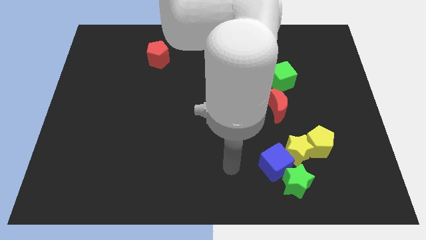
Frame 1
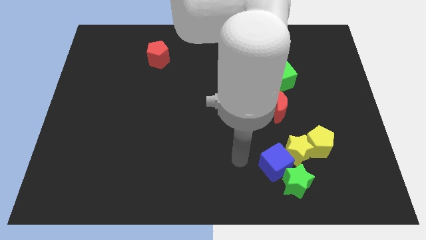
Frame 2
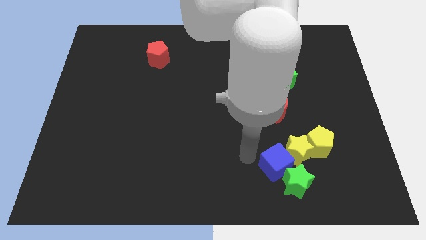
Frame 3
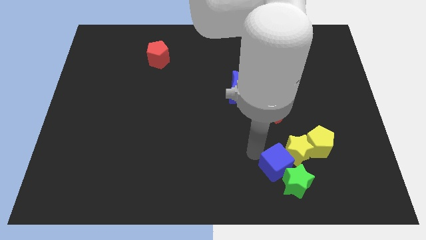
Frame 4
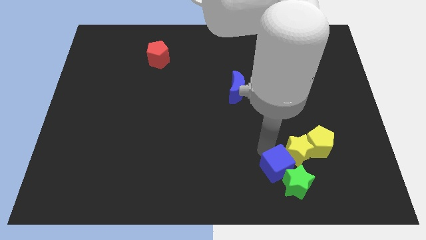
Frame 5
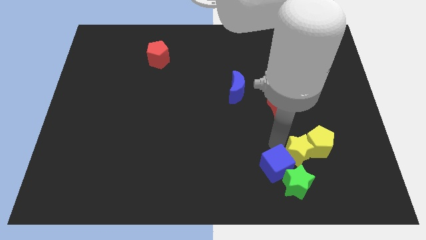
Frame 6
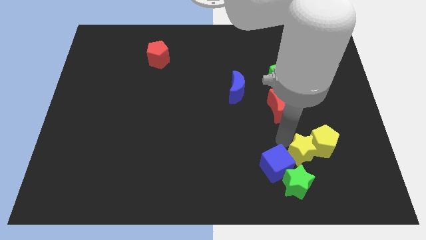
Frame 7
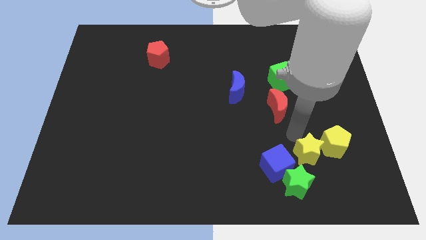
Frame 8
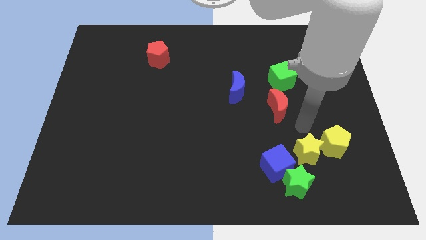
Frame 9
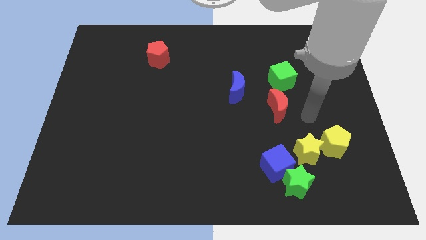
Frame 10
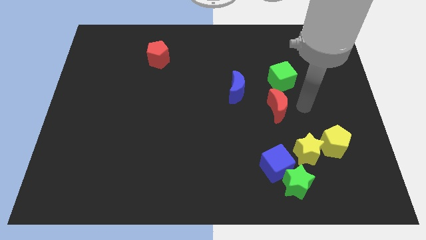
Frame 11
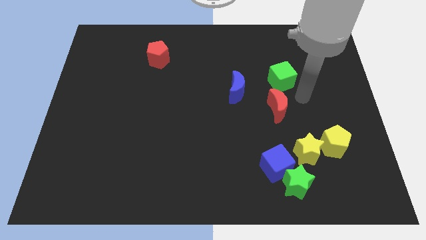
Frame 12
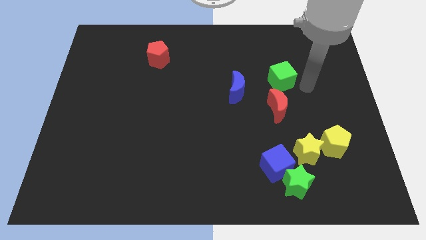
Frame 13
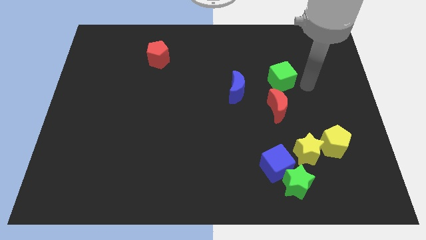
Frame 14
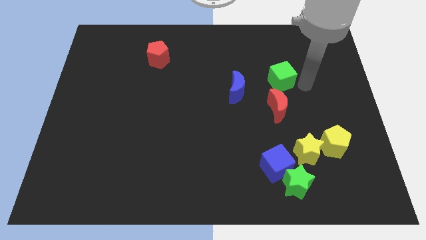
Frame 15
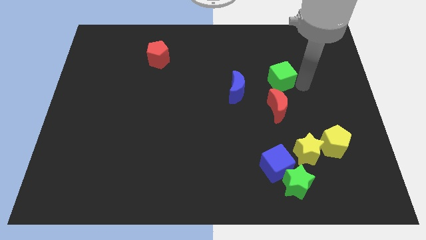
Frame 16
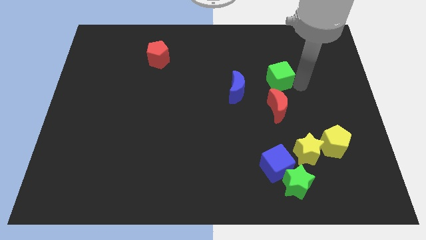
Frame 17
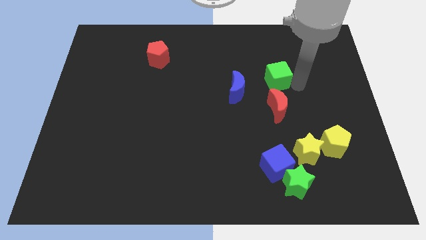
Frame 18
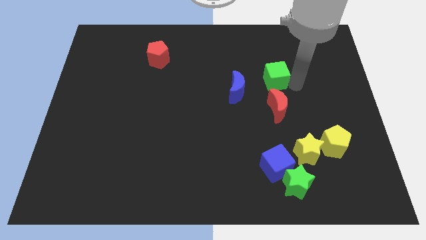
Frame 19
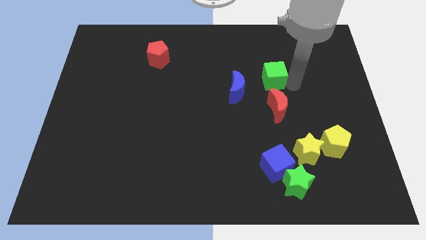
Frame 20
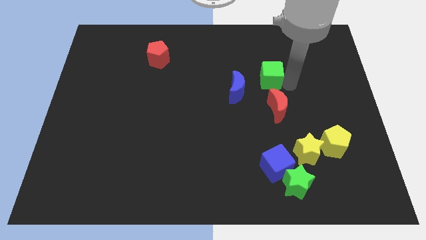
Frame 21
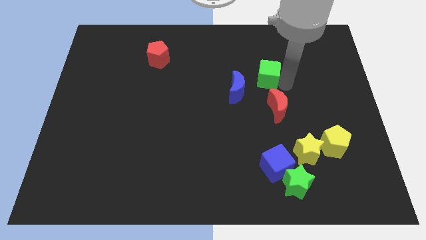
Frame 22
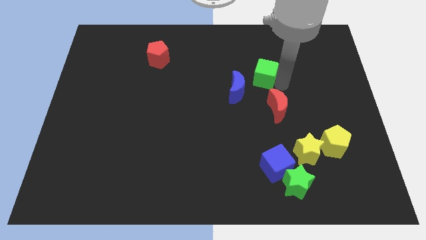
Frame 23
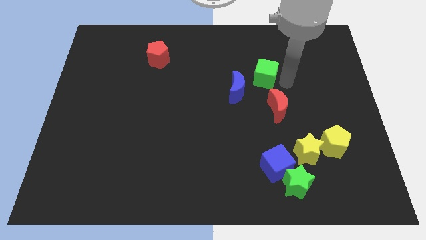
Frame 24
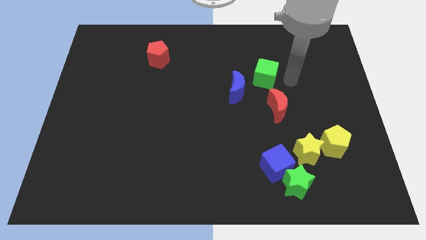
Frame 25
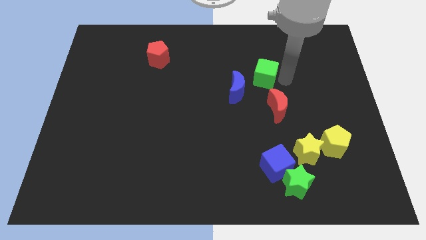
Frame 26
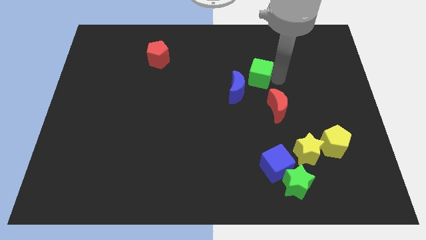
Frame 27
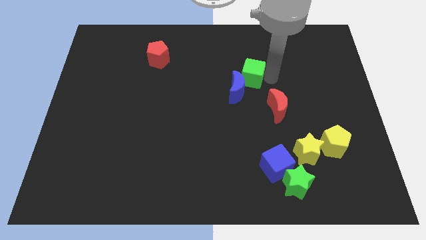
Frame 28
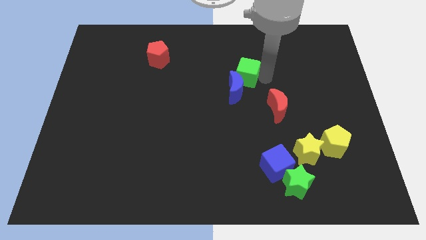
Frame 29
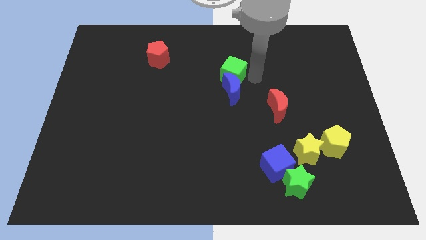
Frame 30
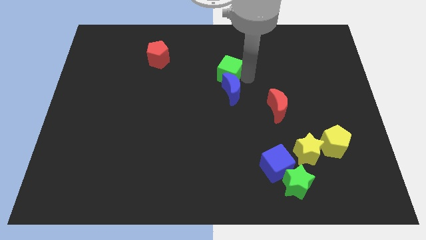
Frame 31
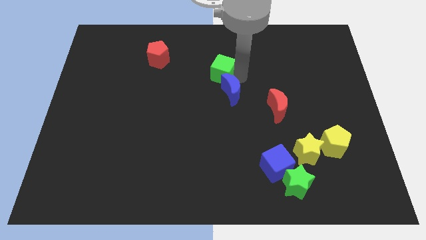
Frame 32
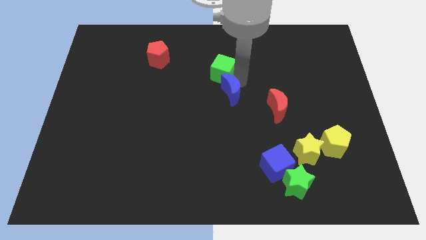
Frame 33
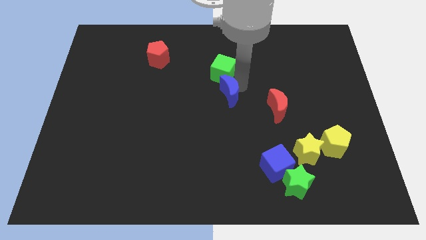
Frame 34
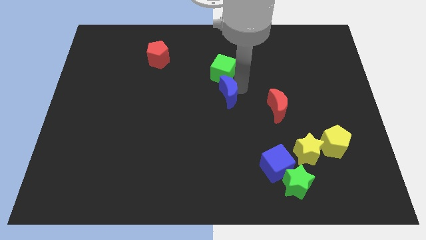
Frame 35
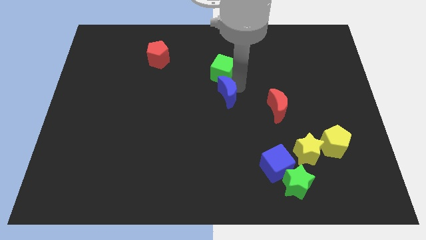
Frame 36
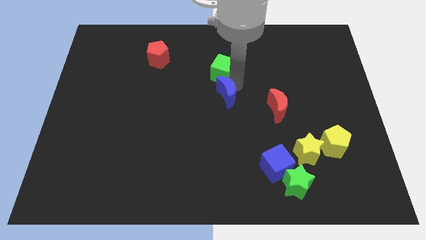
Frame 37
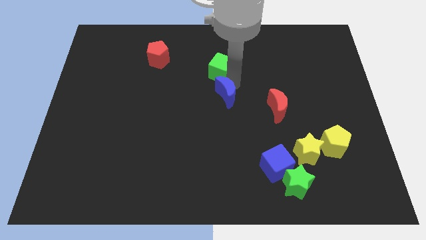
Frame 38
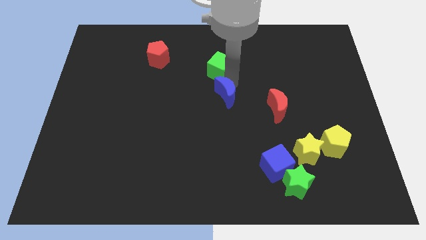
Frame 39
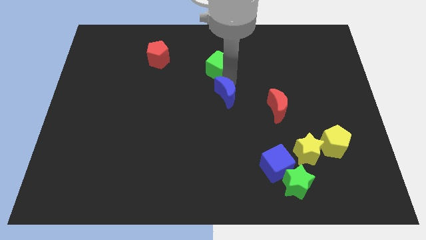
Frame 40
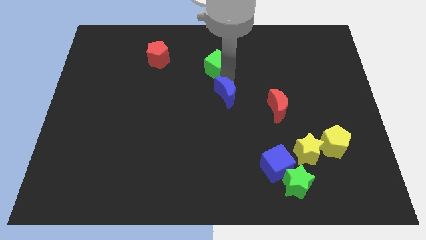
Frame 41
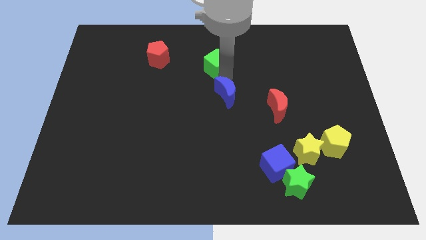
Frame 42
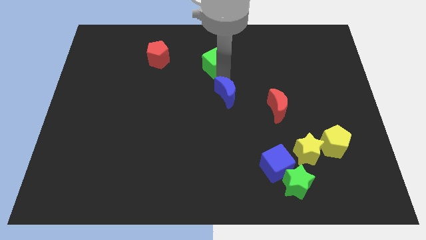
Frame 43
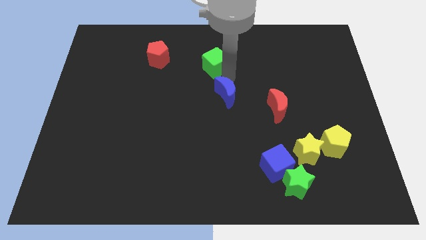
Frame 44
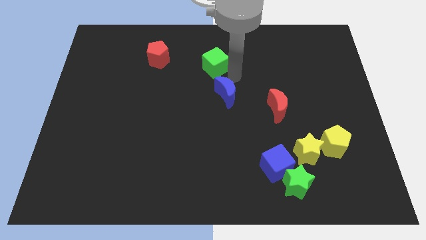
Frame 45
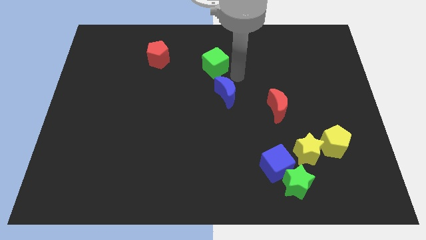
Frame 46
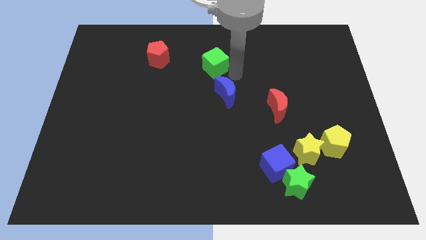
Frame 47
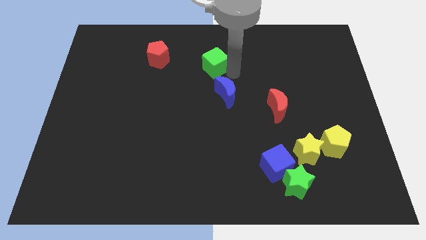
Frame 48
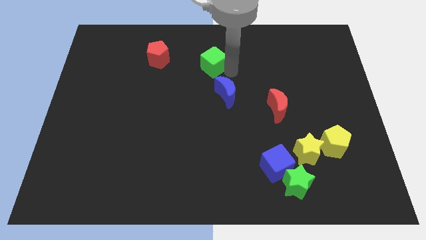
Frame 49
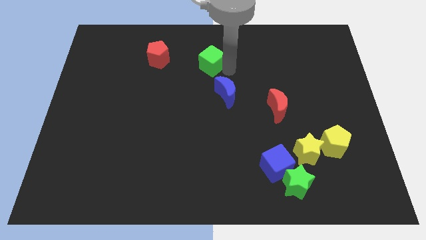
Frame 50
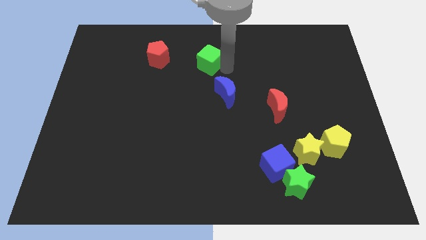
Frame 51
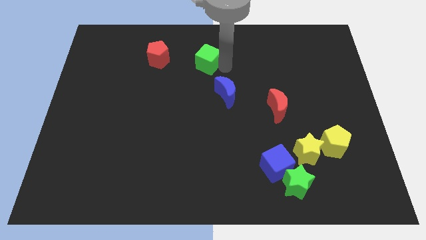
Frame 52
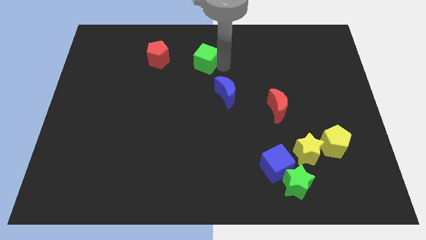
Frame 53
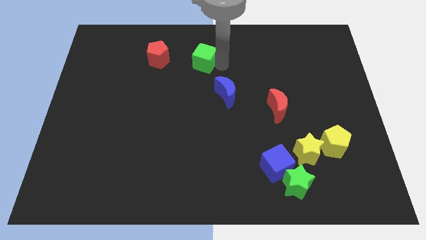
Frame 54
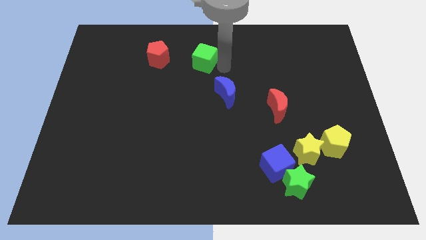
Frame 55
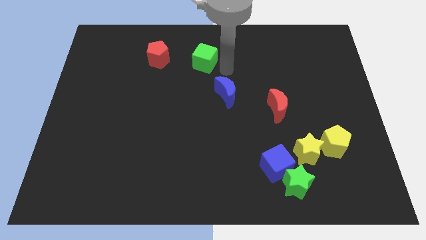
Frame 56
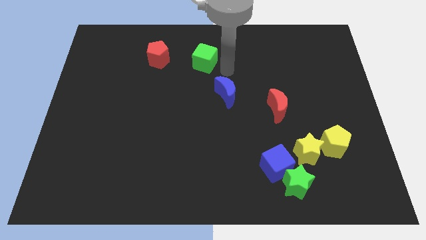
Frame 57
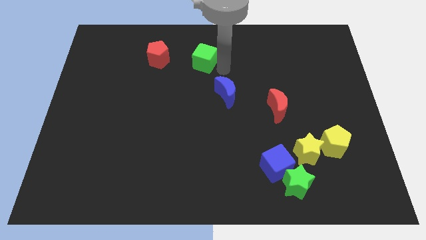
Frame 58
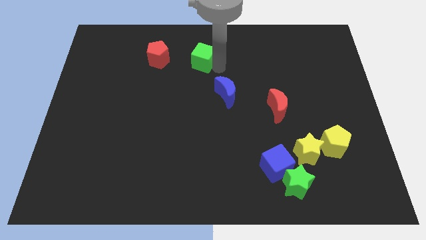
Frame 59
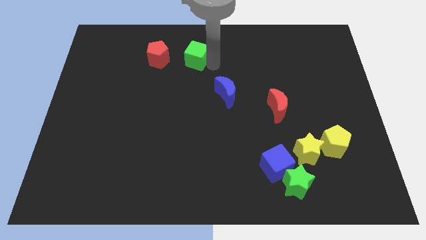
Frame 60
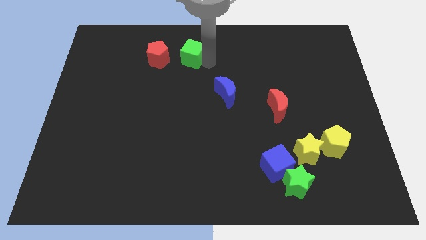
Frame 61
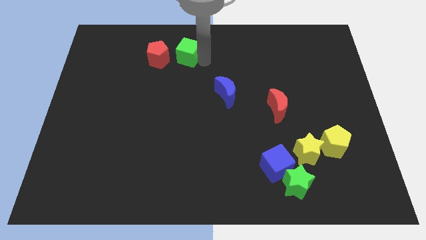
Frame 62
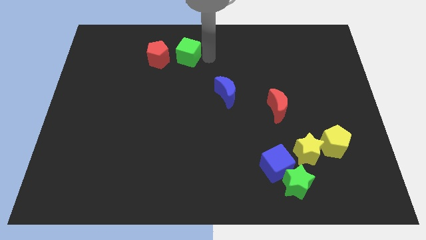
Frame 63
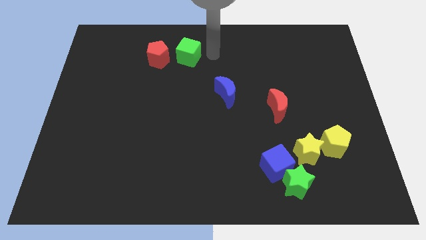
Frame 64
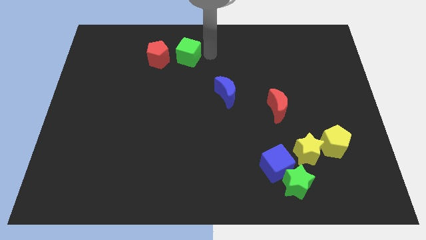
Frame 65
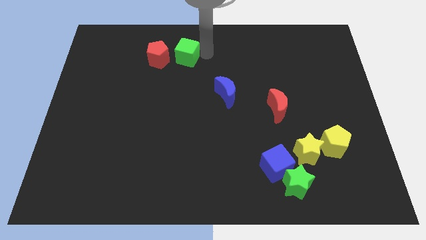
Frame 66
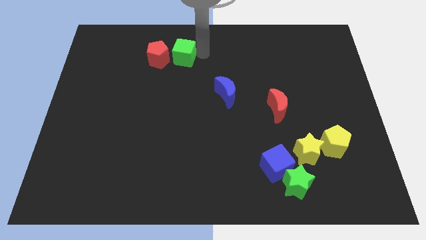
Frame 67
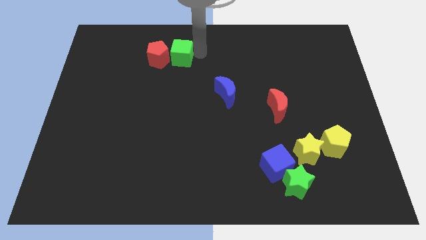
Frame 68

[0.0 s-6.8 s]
move the green cube to the red pentagon

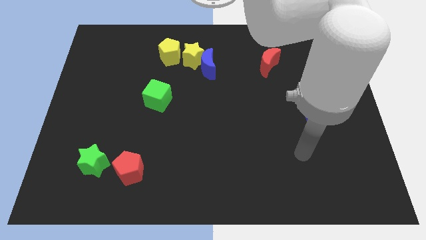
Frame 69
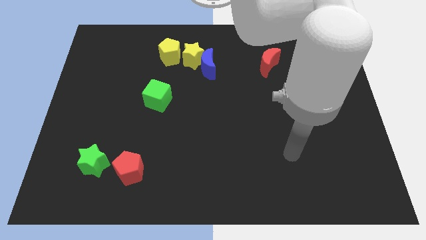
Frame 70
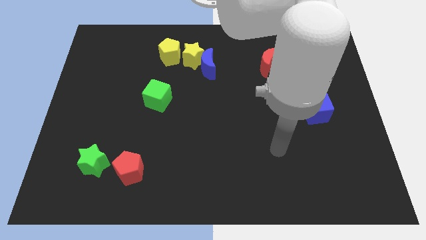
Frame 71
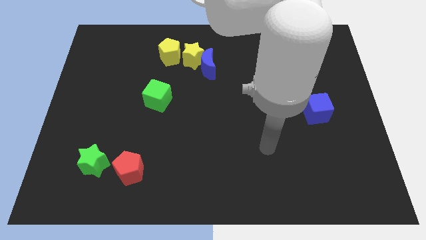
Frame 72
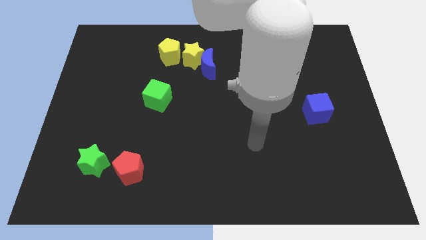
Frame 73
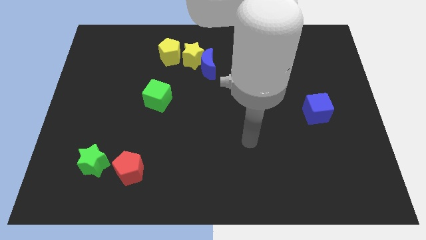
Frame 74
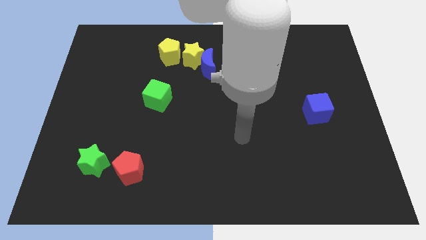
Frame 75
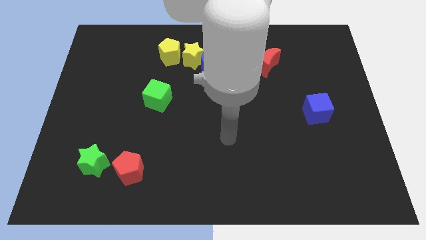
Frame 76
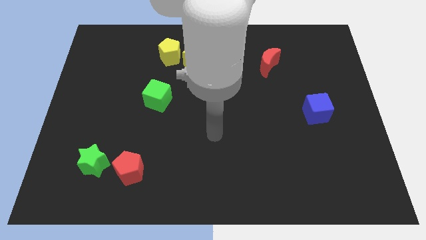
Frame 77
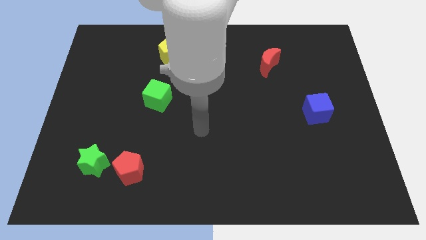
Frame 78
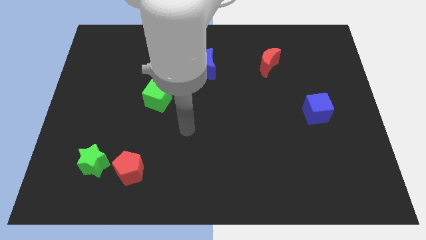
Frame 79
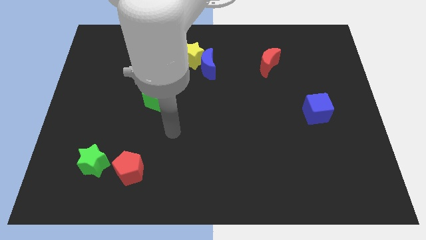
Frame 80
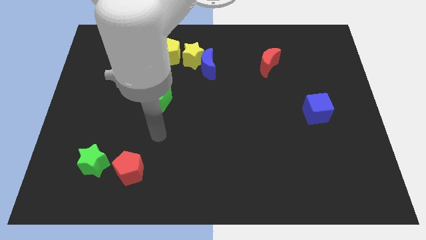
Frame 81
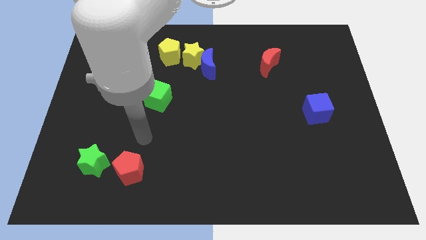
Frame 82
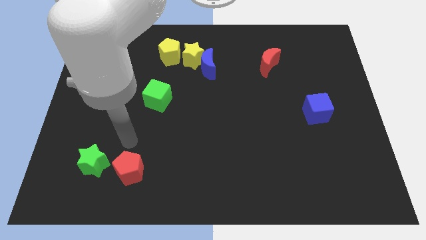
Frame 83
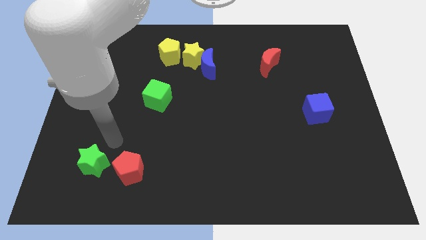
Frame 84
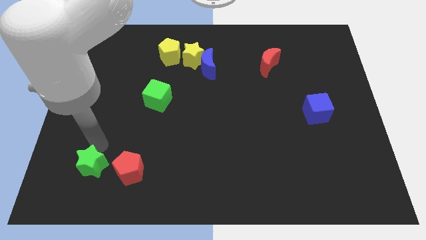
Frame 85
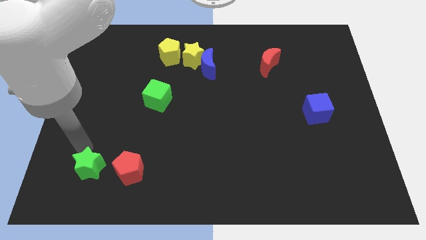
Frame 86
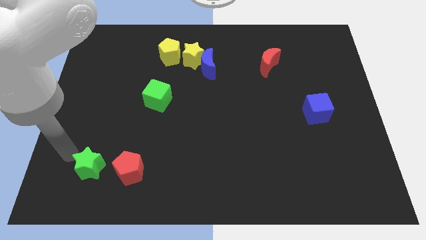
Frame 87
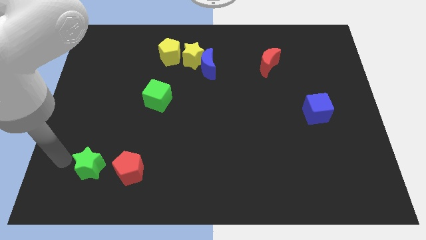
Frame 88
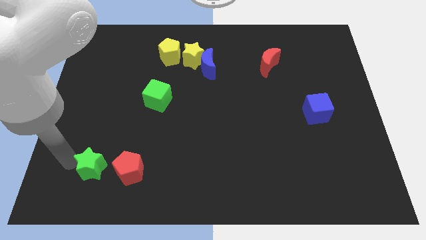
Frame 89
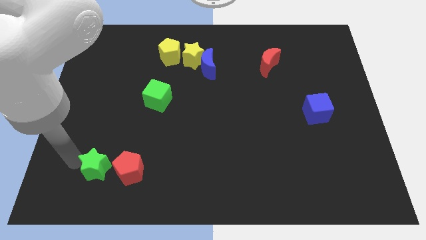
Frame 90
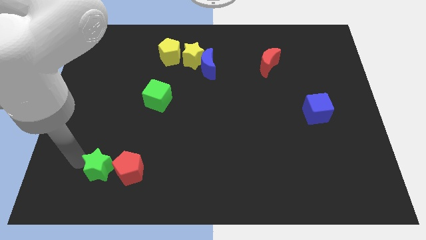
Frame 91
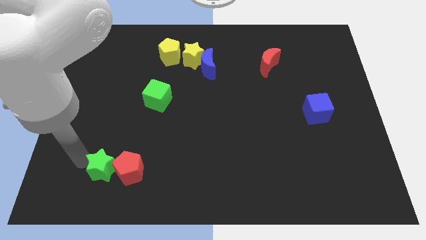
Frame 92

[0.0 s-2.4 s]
slide the green star next to the red pentagon
